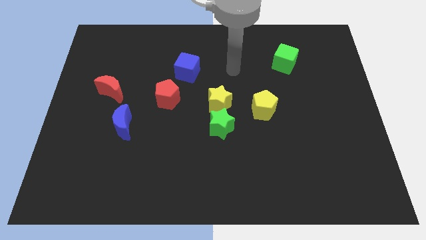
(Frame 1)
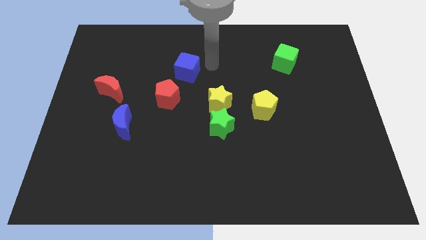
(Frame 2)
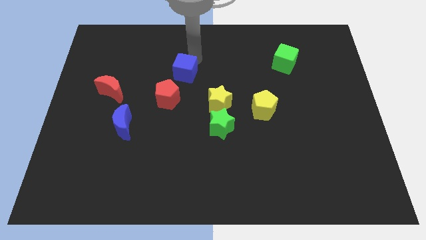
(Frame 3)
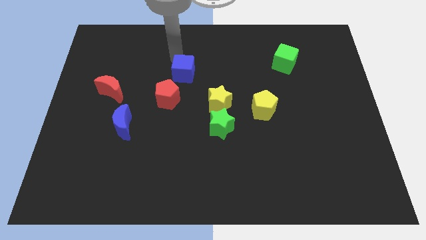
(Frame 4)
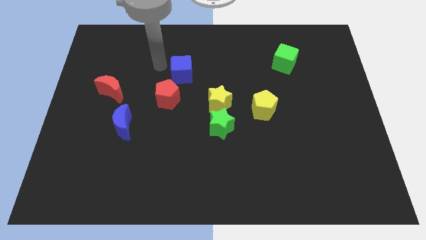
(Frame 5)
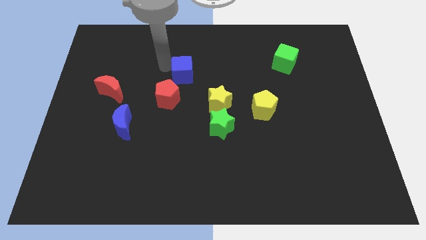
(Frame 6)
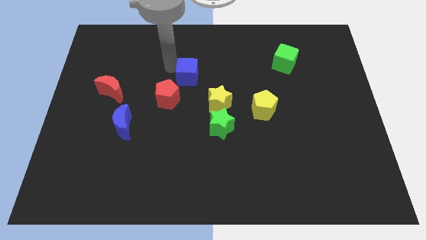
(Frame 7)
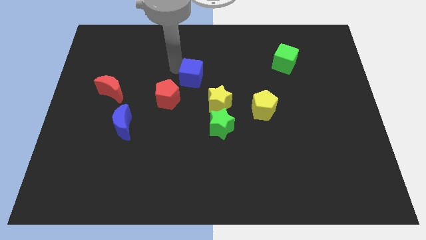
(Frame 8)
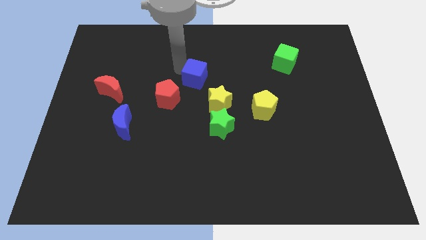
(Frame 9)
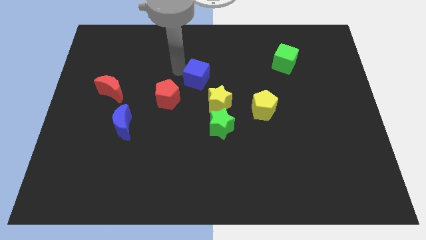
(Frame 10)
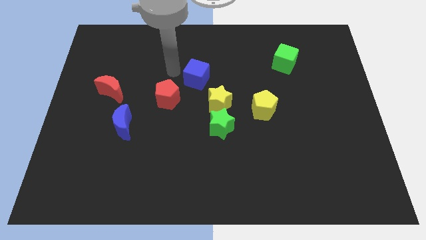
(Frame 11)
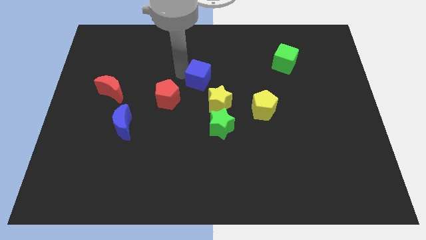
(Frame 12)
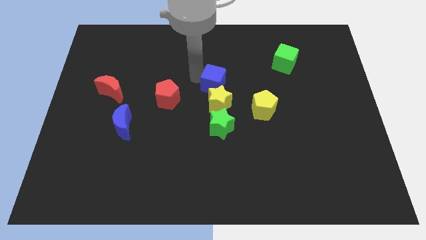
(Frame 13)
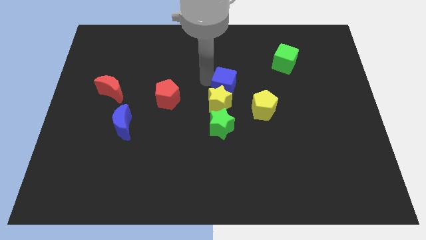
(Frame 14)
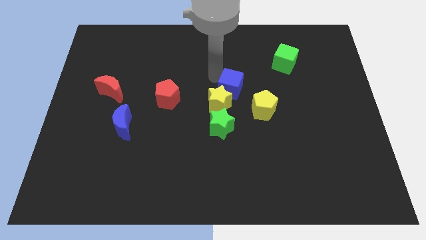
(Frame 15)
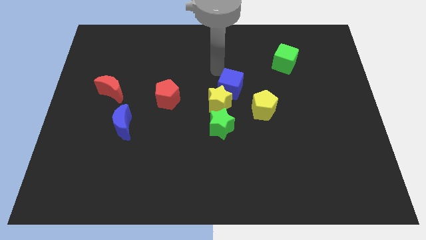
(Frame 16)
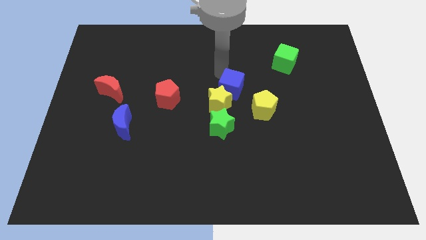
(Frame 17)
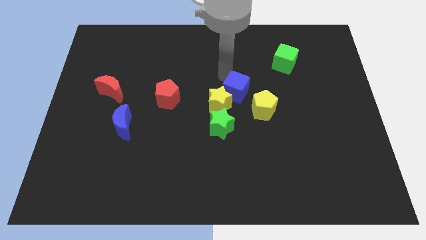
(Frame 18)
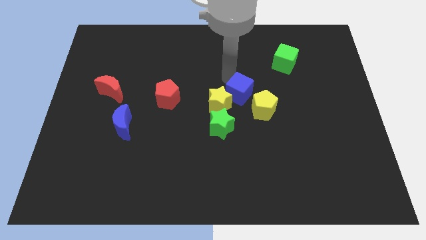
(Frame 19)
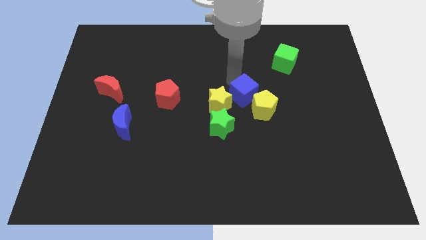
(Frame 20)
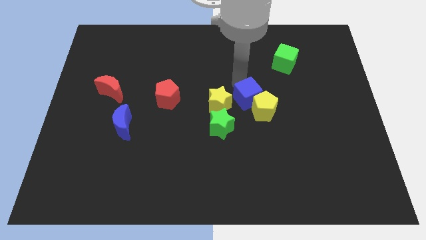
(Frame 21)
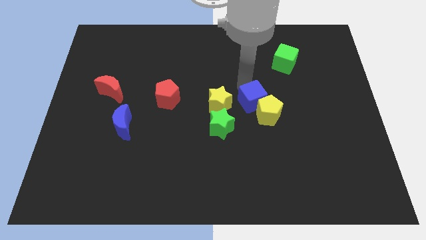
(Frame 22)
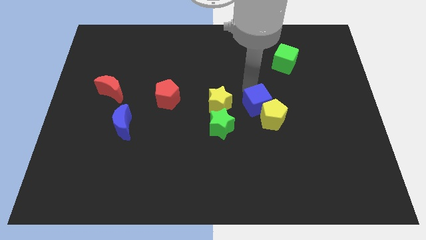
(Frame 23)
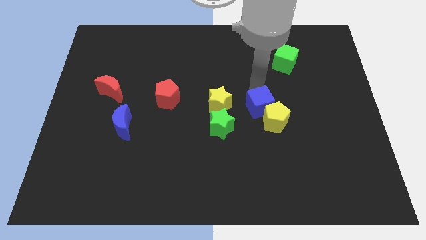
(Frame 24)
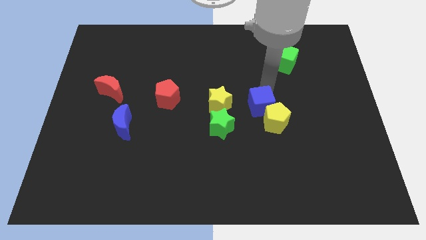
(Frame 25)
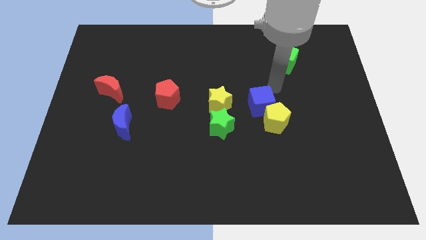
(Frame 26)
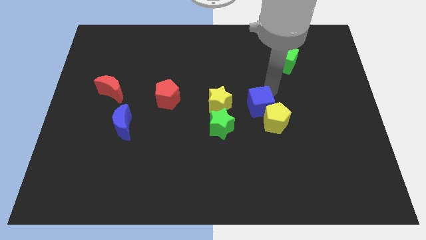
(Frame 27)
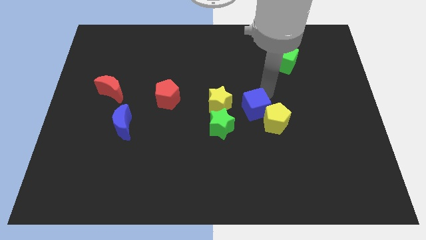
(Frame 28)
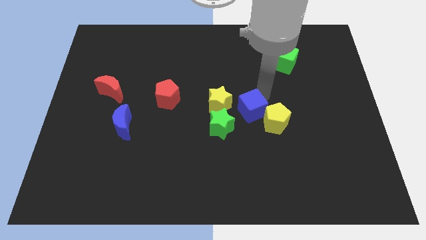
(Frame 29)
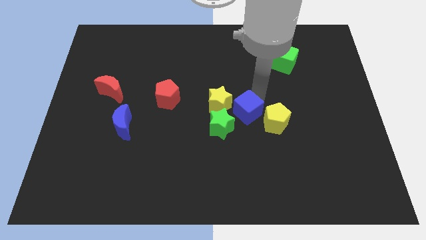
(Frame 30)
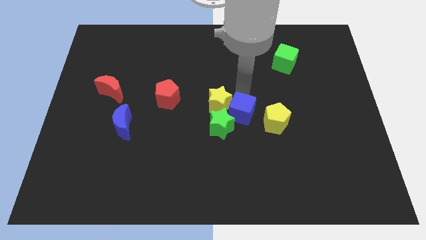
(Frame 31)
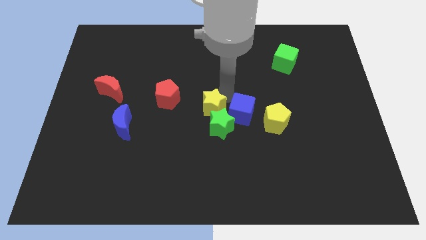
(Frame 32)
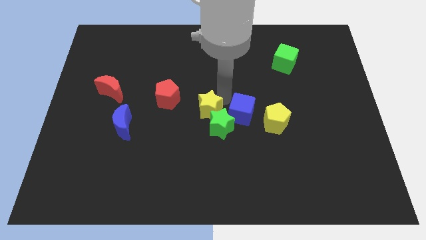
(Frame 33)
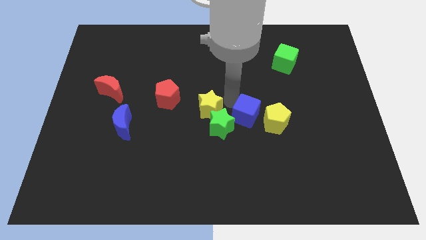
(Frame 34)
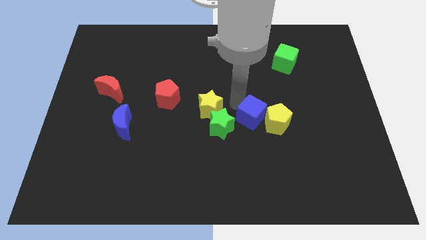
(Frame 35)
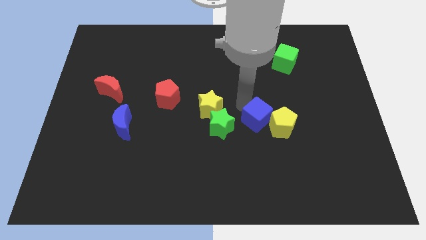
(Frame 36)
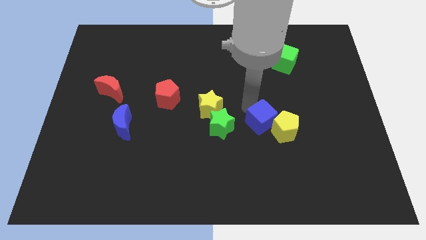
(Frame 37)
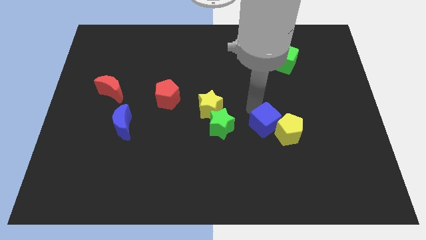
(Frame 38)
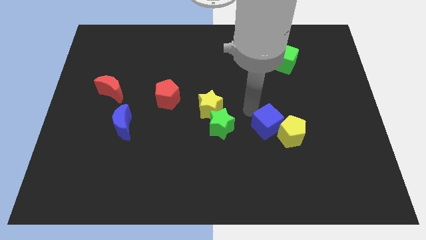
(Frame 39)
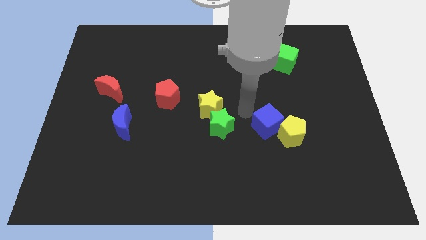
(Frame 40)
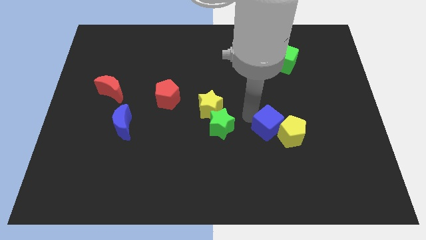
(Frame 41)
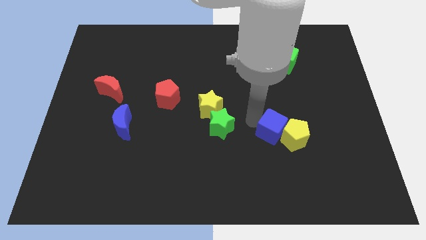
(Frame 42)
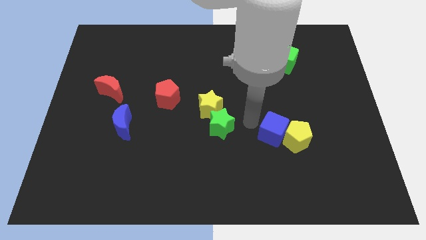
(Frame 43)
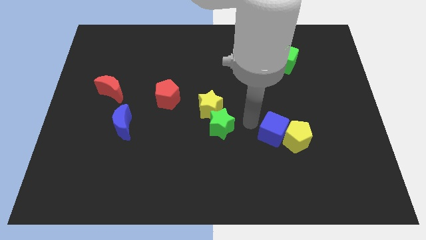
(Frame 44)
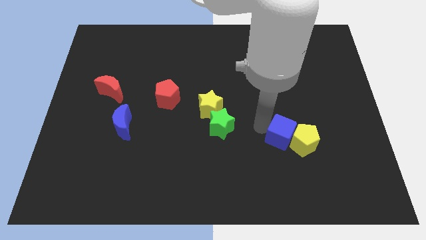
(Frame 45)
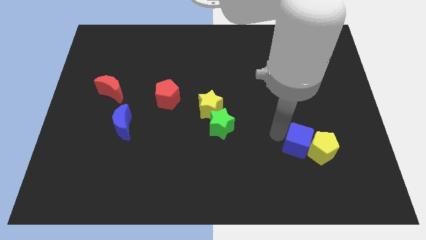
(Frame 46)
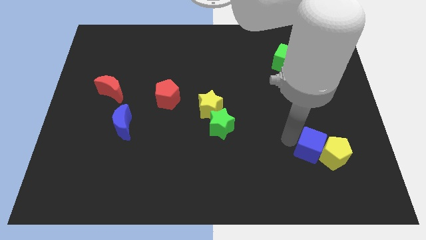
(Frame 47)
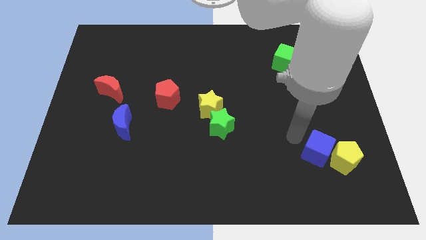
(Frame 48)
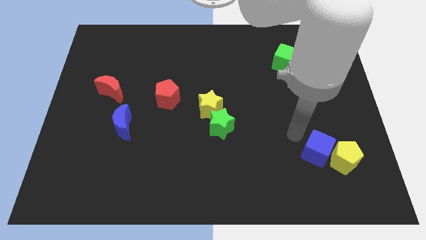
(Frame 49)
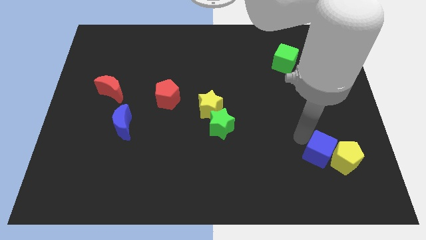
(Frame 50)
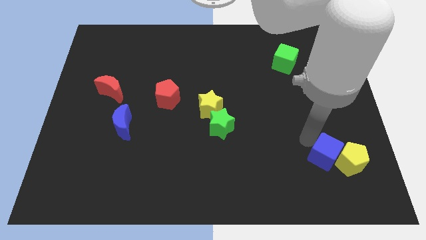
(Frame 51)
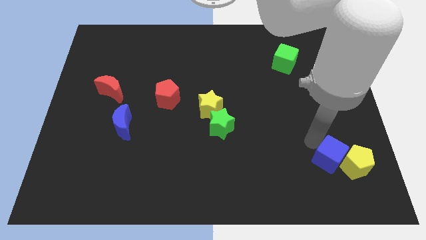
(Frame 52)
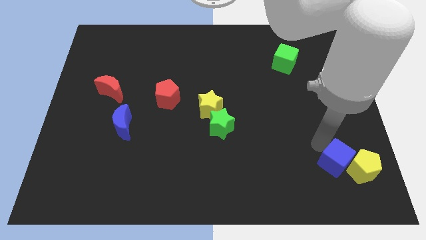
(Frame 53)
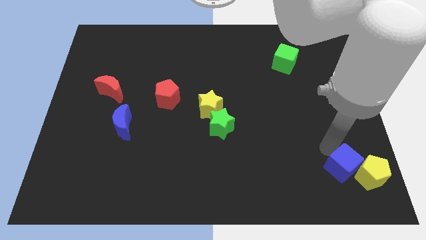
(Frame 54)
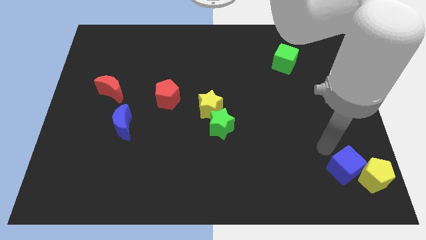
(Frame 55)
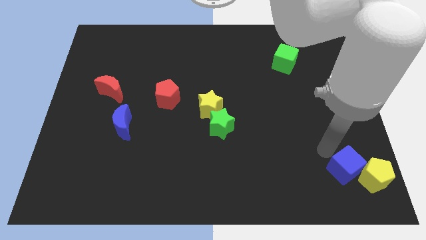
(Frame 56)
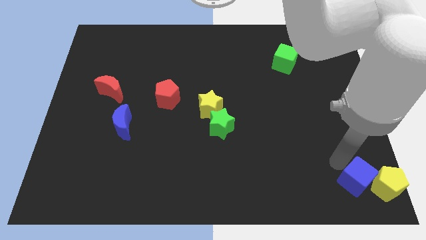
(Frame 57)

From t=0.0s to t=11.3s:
move the blue cube to the bottom right

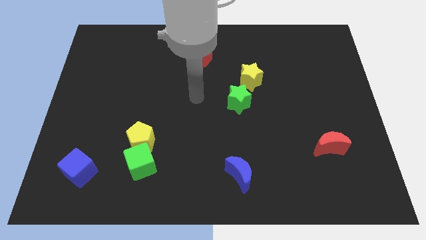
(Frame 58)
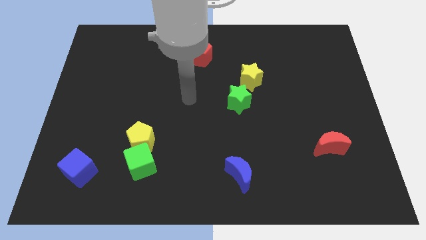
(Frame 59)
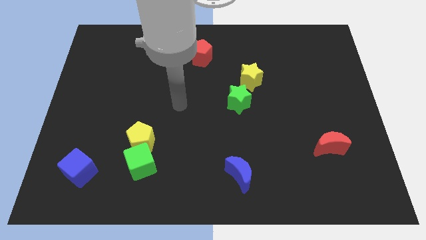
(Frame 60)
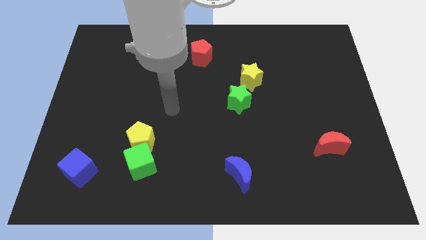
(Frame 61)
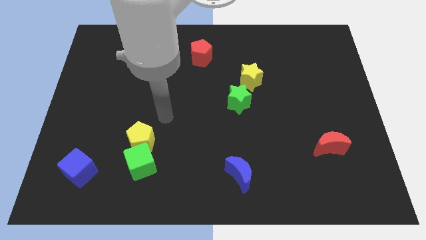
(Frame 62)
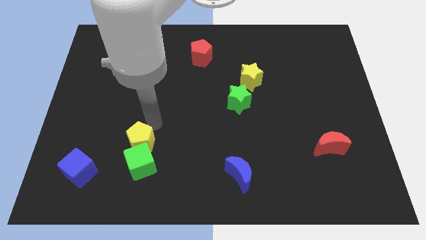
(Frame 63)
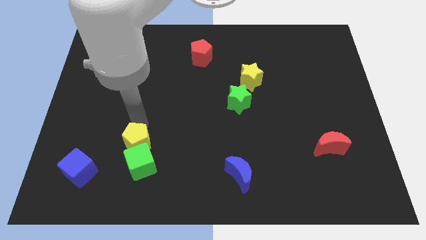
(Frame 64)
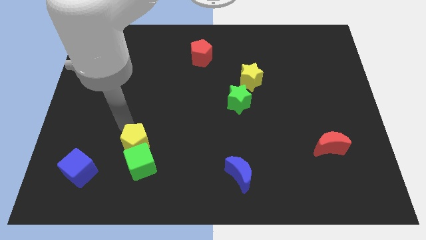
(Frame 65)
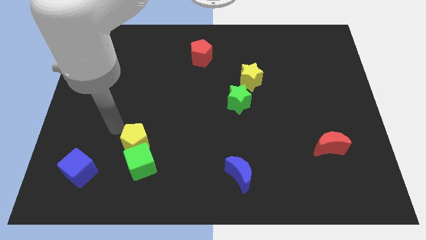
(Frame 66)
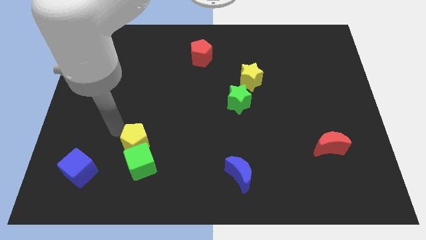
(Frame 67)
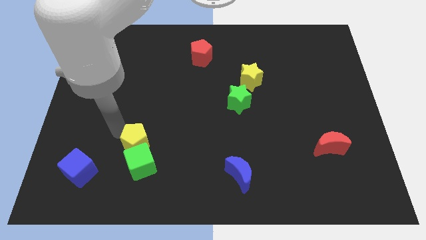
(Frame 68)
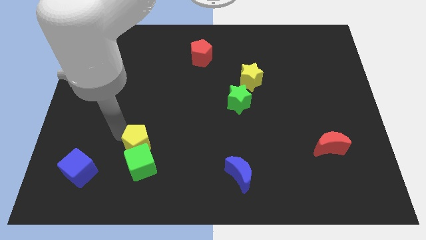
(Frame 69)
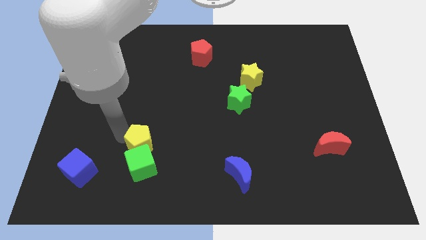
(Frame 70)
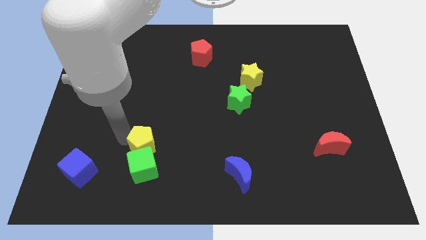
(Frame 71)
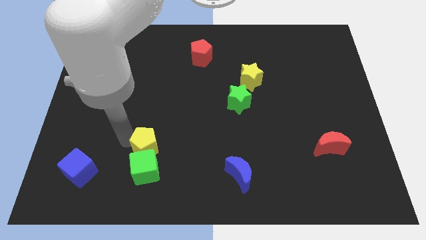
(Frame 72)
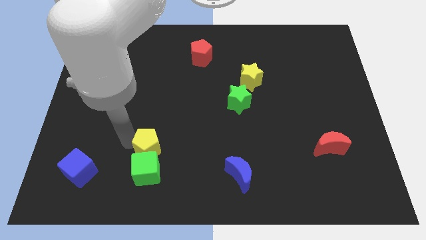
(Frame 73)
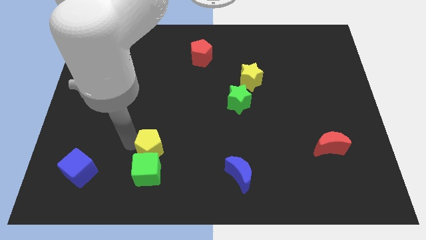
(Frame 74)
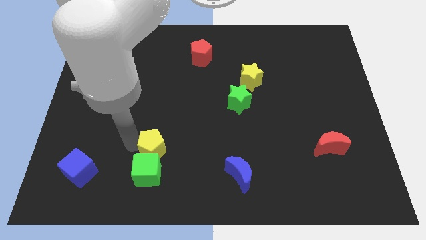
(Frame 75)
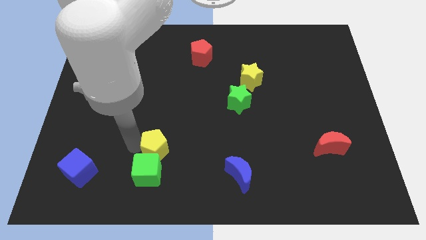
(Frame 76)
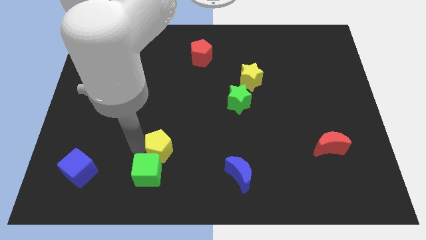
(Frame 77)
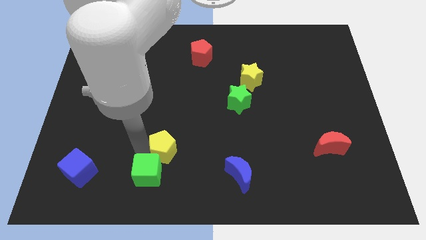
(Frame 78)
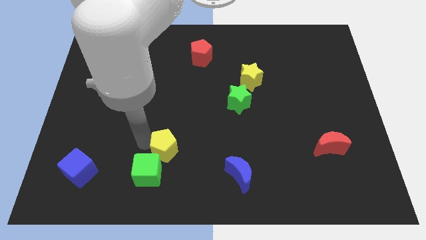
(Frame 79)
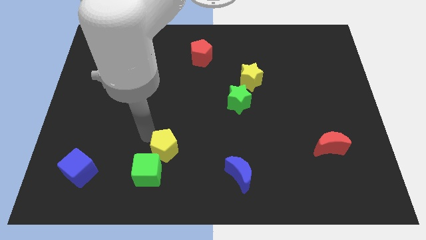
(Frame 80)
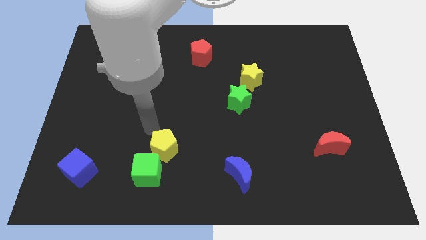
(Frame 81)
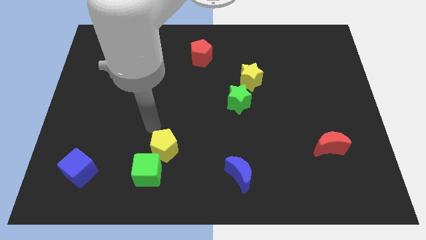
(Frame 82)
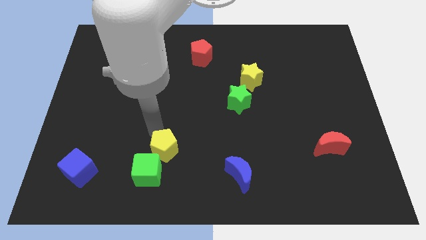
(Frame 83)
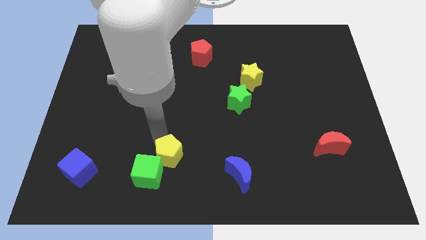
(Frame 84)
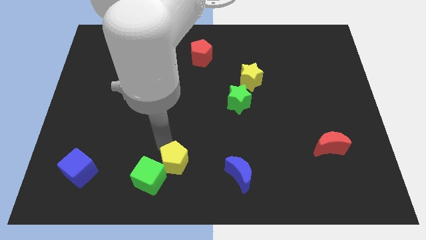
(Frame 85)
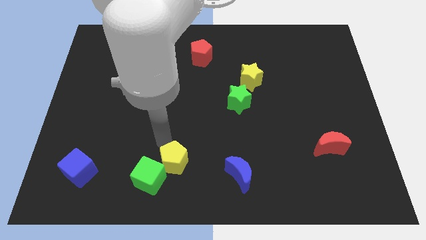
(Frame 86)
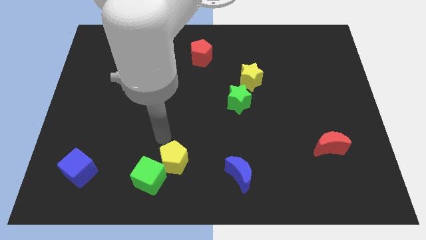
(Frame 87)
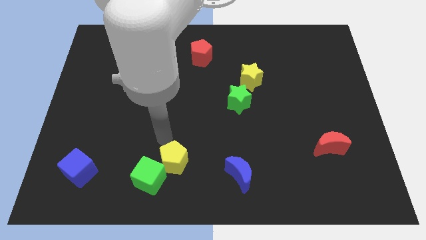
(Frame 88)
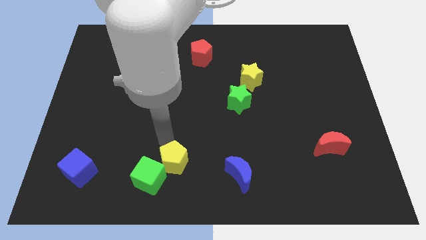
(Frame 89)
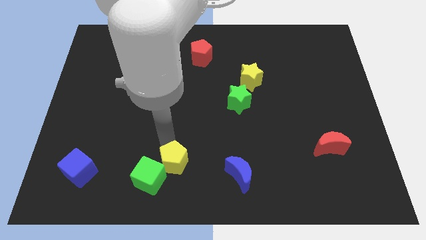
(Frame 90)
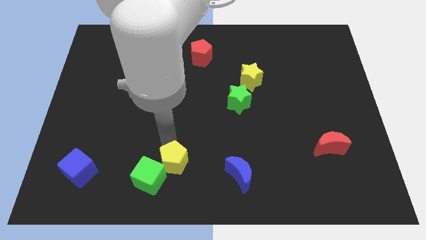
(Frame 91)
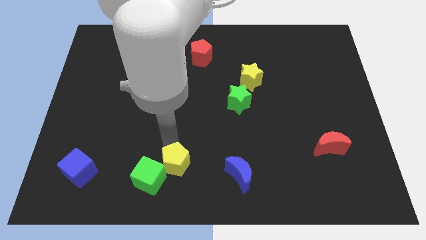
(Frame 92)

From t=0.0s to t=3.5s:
slide the yellow pentagon to the bottom
